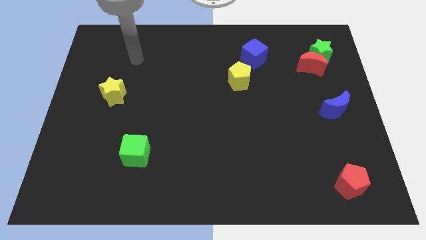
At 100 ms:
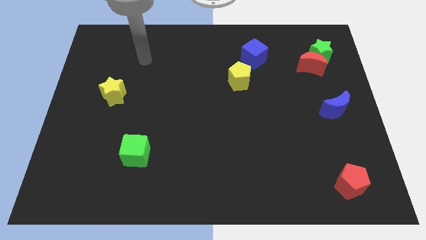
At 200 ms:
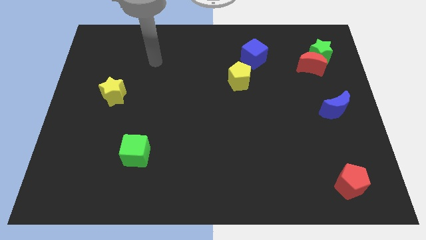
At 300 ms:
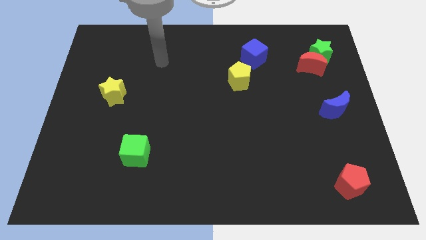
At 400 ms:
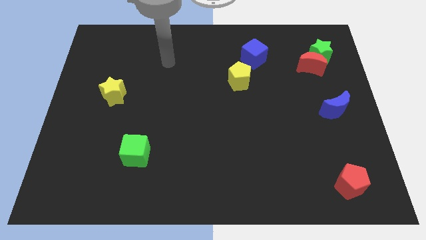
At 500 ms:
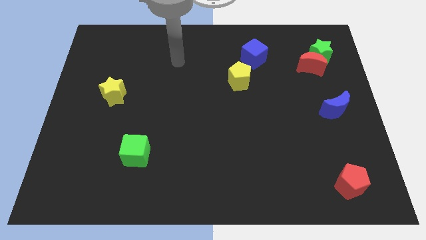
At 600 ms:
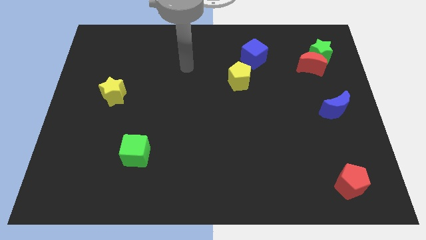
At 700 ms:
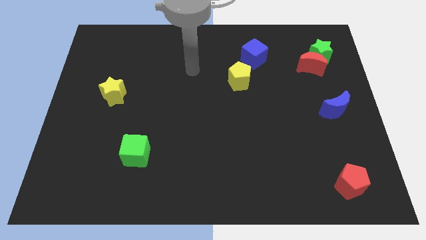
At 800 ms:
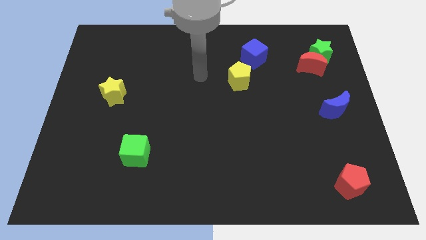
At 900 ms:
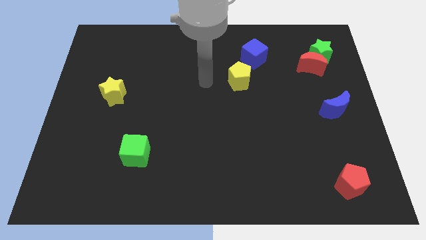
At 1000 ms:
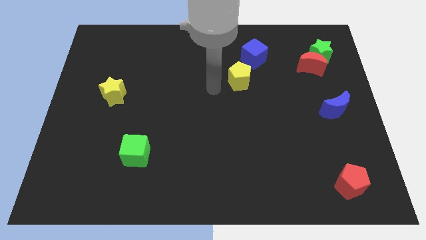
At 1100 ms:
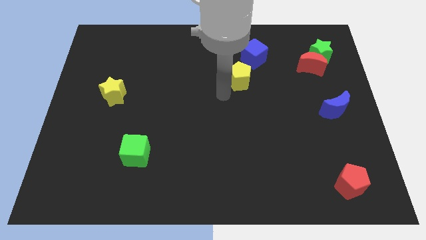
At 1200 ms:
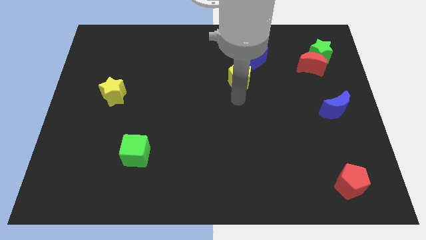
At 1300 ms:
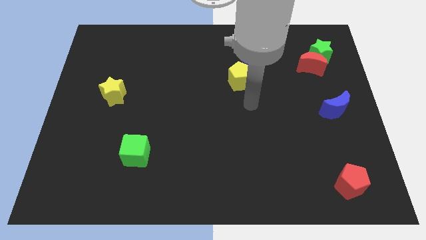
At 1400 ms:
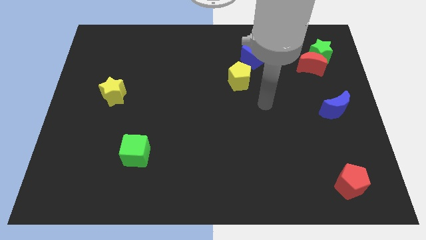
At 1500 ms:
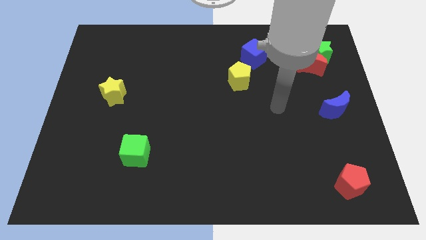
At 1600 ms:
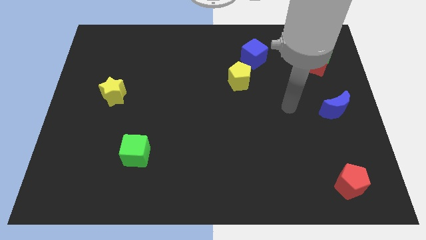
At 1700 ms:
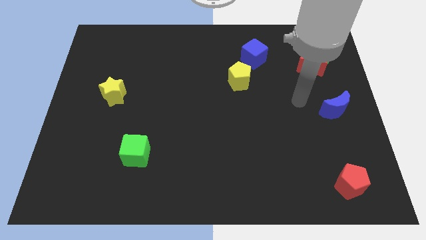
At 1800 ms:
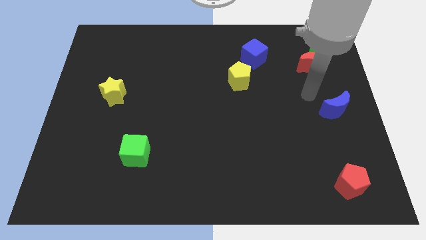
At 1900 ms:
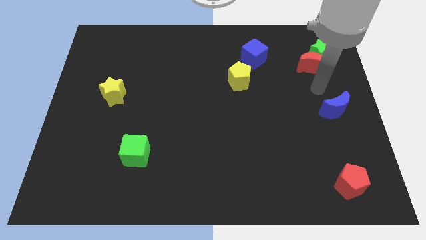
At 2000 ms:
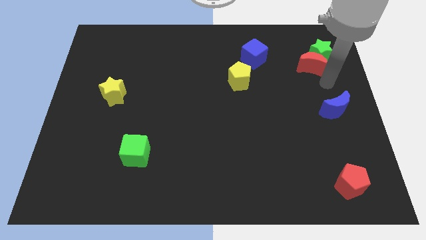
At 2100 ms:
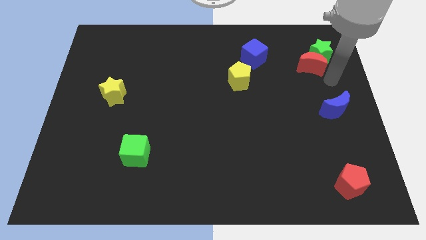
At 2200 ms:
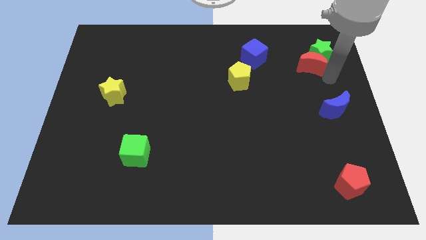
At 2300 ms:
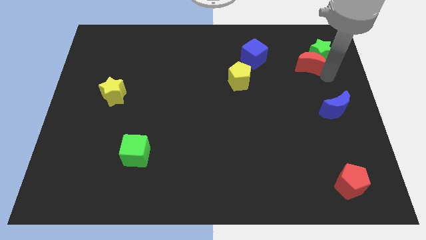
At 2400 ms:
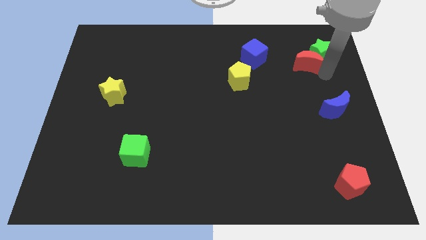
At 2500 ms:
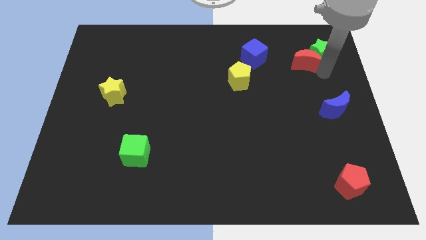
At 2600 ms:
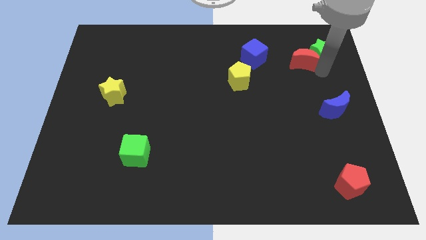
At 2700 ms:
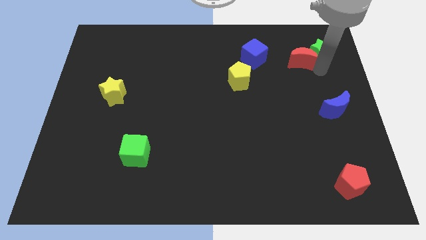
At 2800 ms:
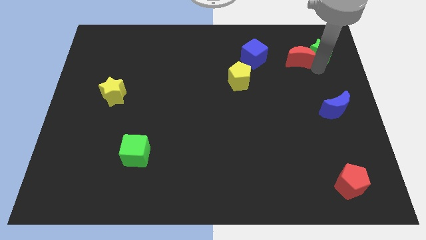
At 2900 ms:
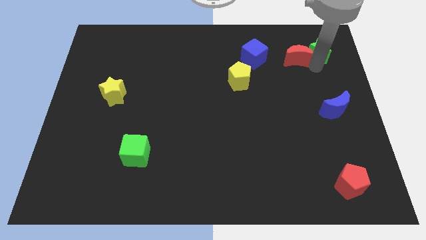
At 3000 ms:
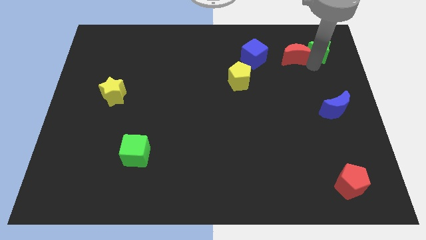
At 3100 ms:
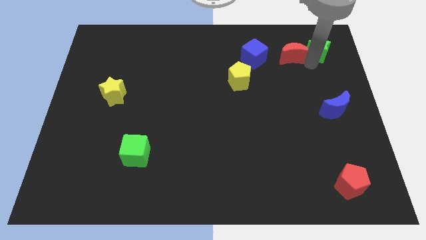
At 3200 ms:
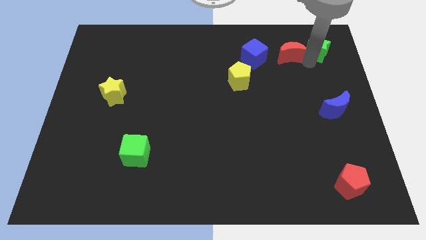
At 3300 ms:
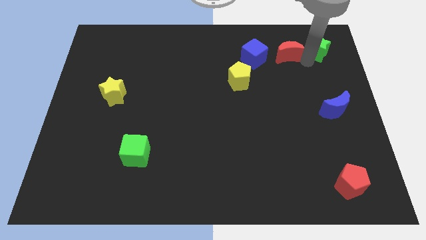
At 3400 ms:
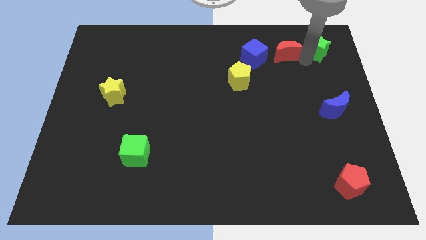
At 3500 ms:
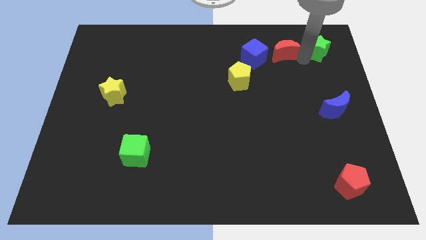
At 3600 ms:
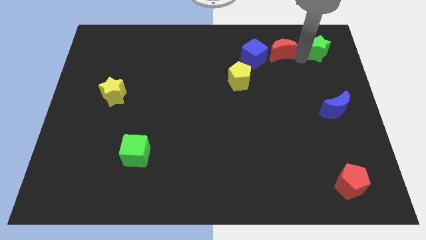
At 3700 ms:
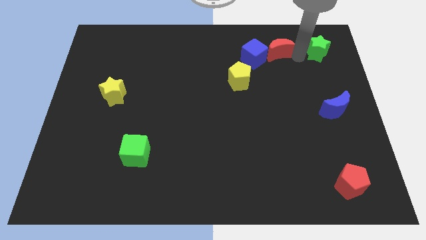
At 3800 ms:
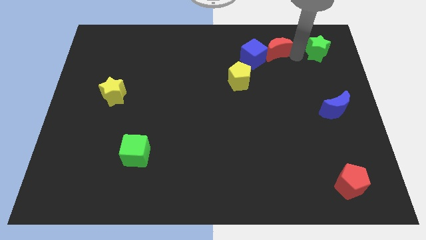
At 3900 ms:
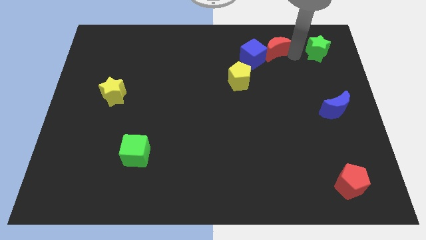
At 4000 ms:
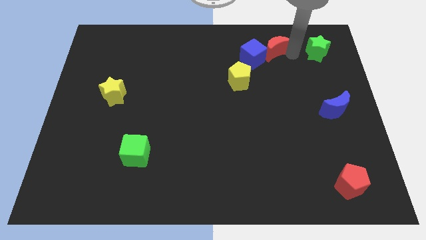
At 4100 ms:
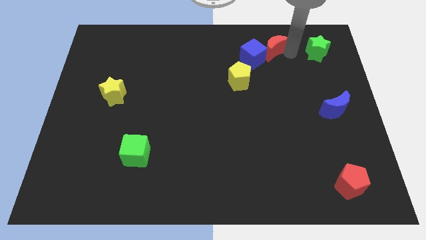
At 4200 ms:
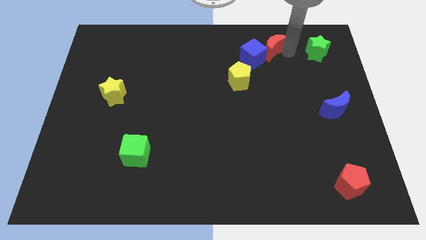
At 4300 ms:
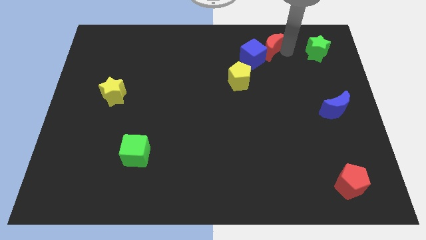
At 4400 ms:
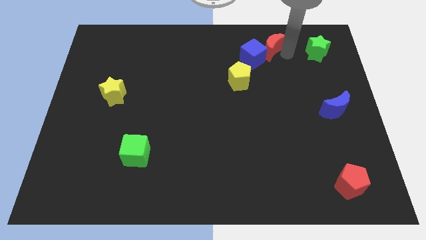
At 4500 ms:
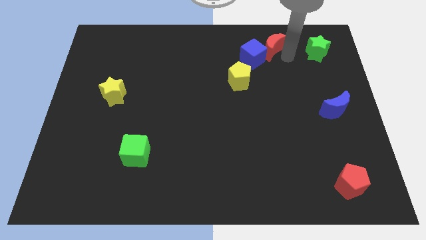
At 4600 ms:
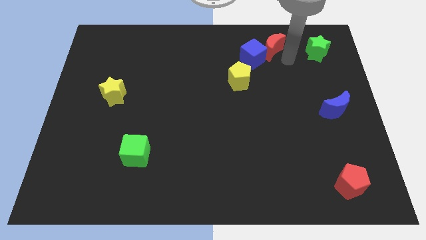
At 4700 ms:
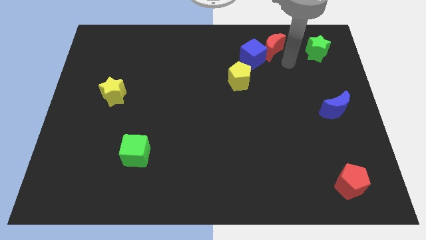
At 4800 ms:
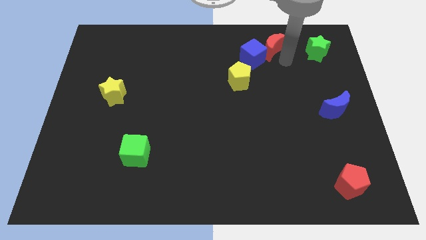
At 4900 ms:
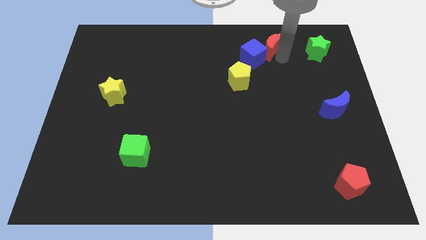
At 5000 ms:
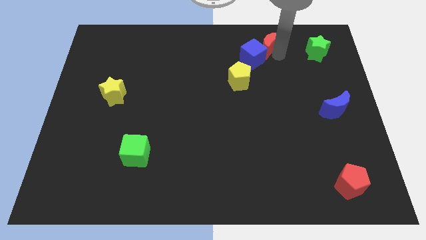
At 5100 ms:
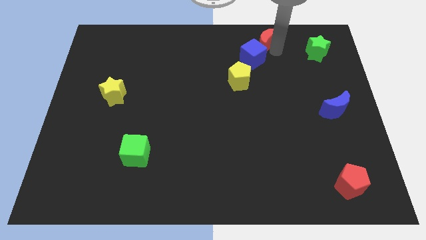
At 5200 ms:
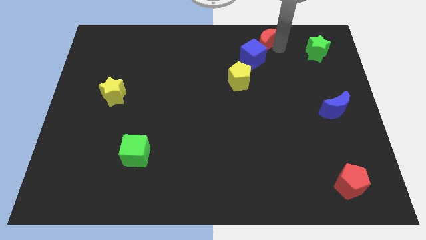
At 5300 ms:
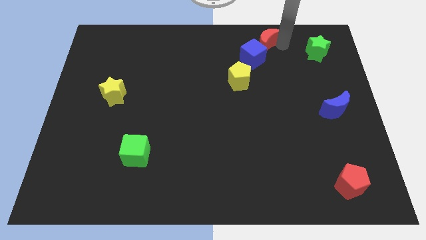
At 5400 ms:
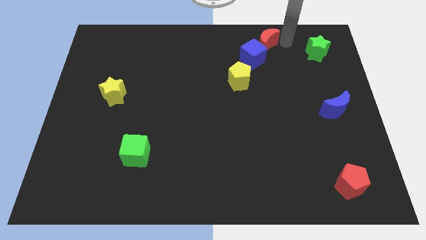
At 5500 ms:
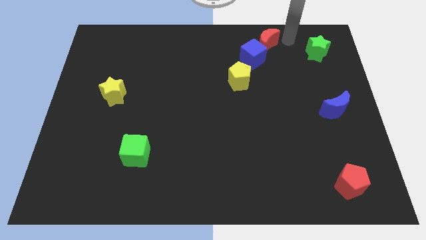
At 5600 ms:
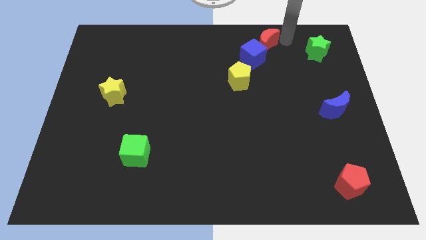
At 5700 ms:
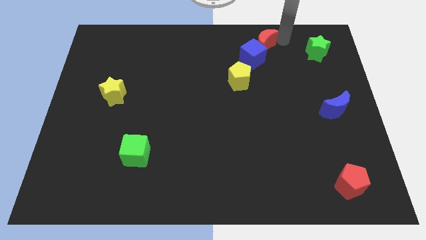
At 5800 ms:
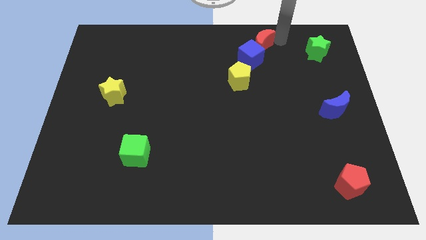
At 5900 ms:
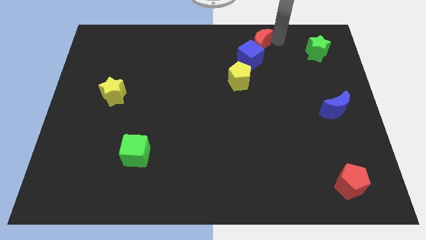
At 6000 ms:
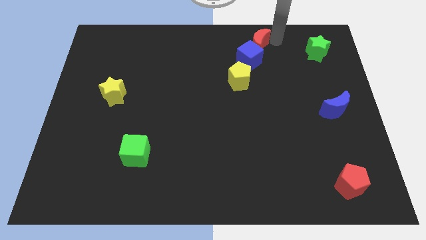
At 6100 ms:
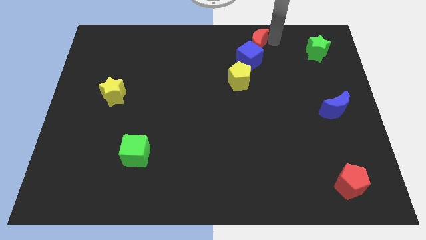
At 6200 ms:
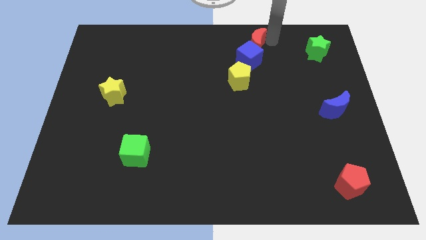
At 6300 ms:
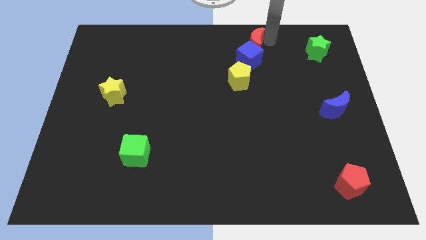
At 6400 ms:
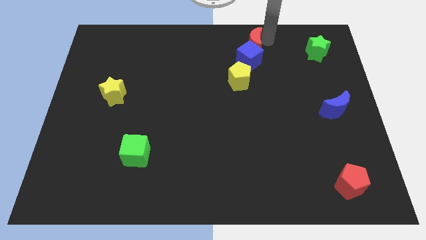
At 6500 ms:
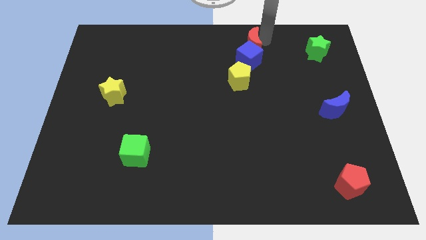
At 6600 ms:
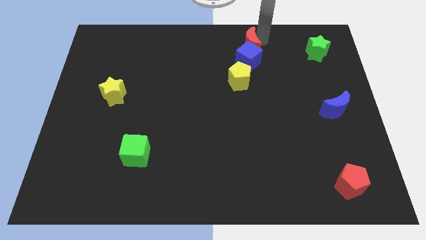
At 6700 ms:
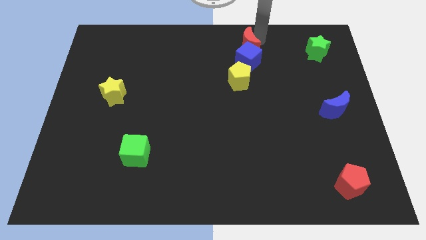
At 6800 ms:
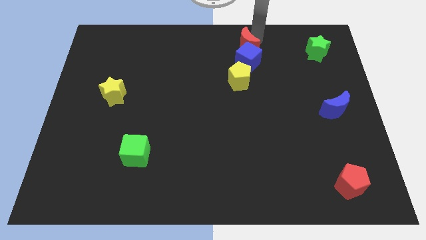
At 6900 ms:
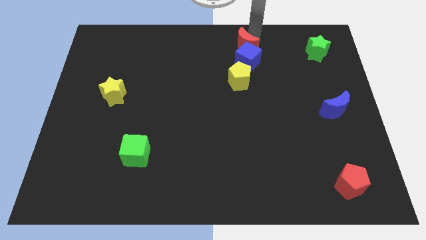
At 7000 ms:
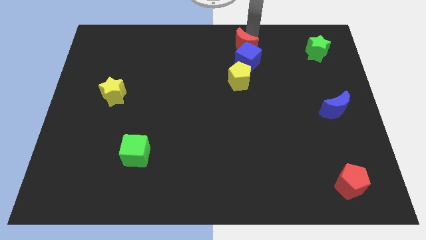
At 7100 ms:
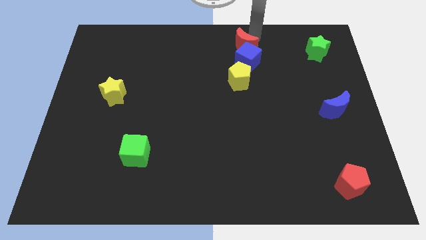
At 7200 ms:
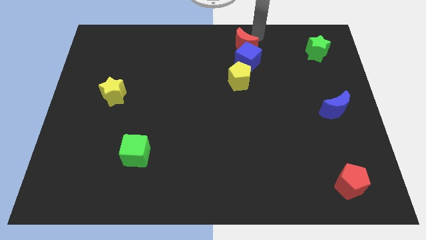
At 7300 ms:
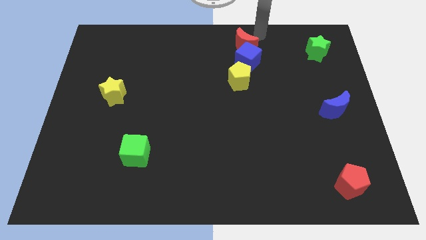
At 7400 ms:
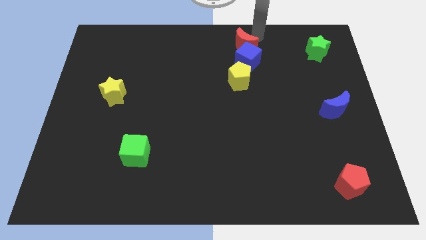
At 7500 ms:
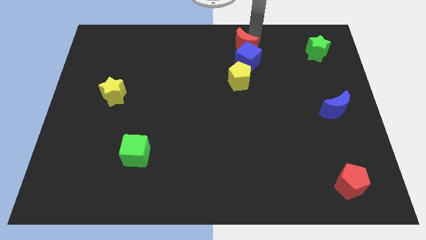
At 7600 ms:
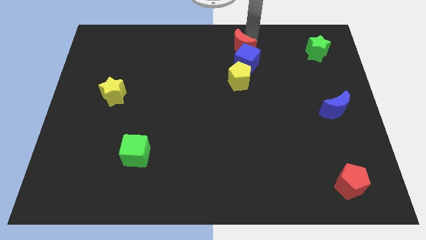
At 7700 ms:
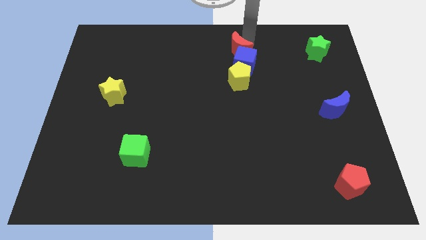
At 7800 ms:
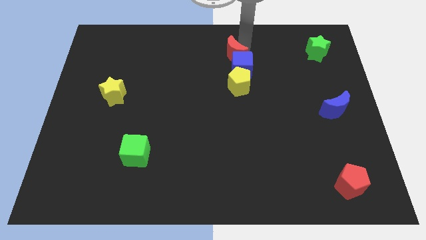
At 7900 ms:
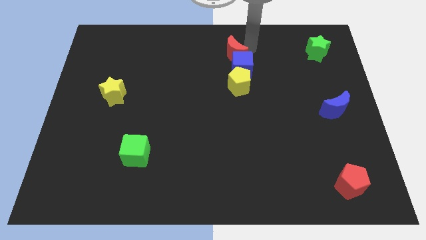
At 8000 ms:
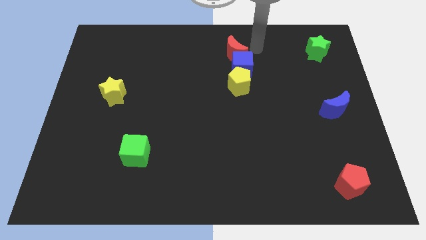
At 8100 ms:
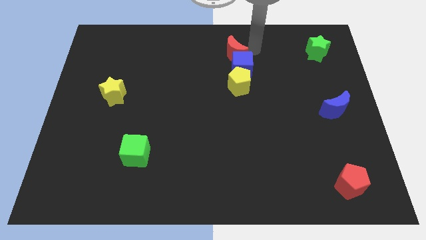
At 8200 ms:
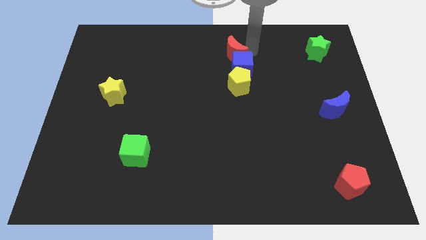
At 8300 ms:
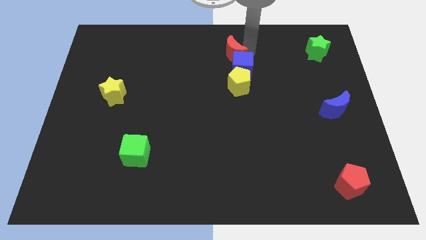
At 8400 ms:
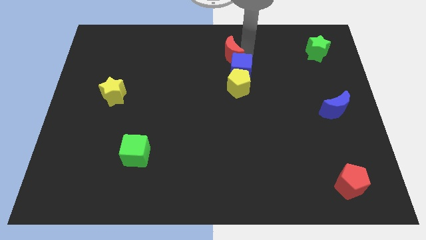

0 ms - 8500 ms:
slide the red moon left
